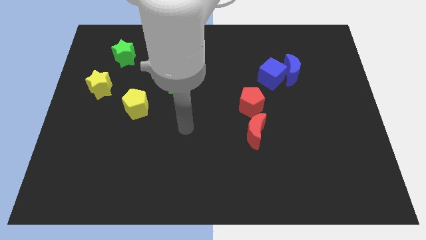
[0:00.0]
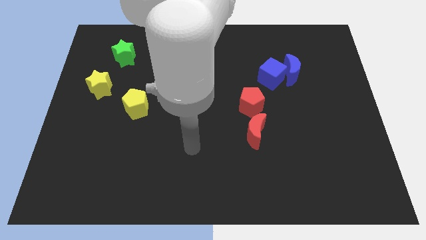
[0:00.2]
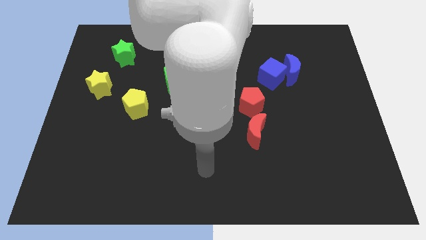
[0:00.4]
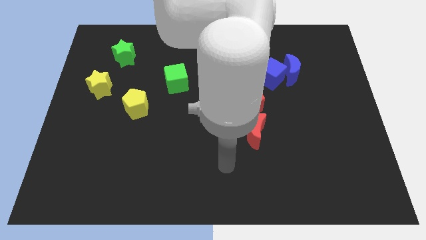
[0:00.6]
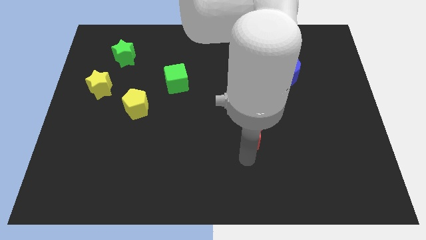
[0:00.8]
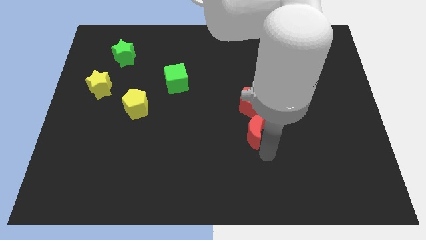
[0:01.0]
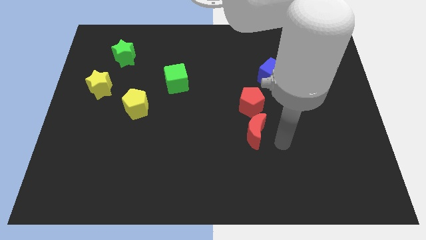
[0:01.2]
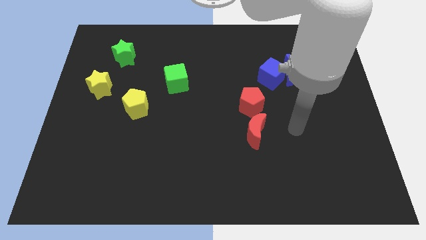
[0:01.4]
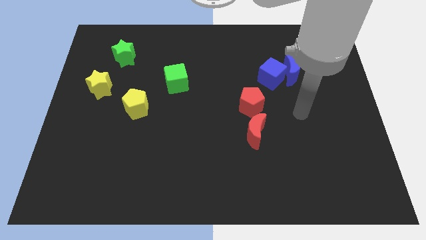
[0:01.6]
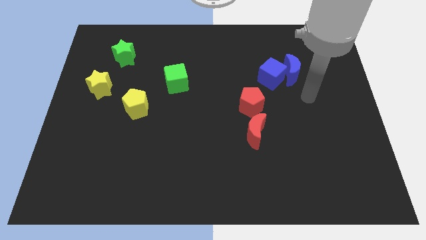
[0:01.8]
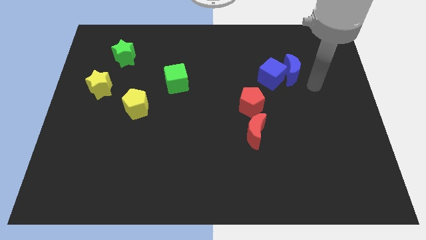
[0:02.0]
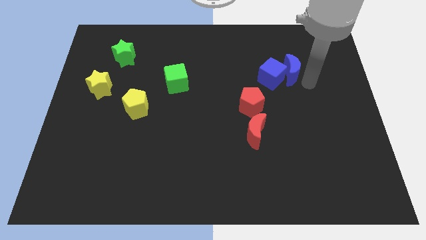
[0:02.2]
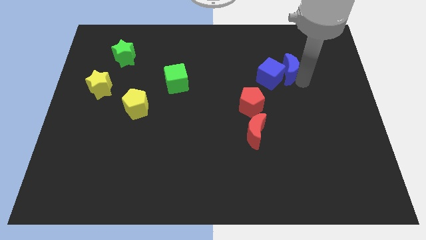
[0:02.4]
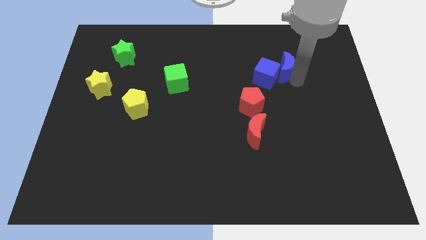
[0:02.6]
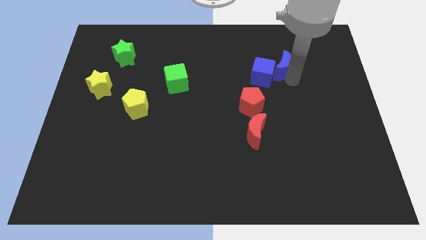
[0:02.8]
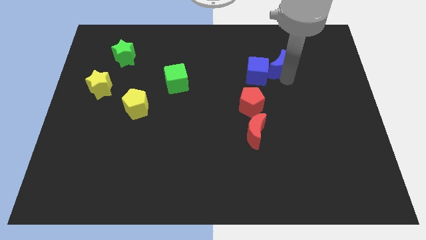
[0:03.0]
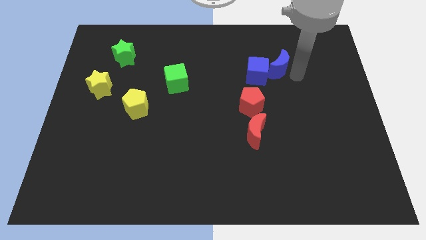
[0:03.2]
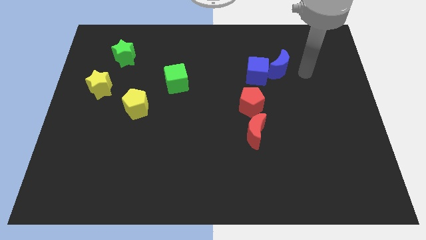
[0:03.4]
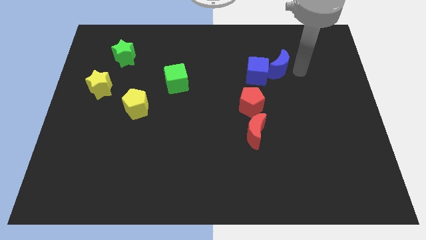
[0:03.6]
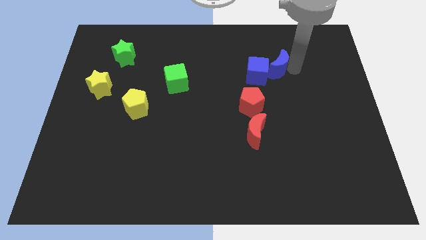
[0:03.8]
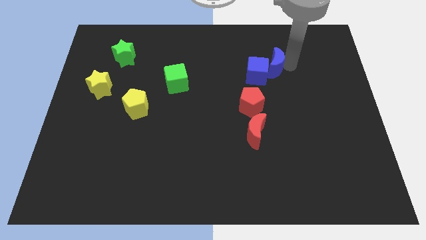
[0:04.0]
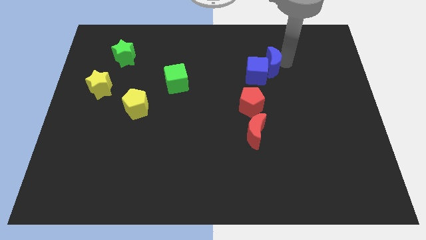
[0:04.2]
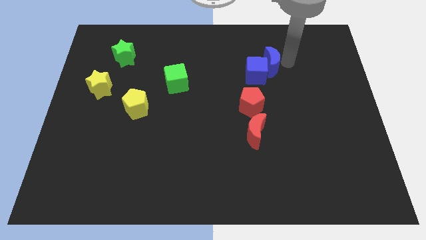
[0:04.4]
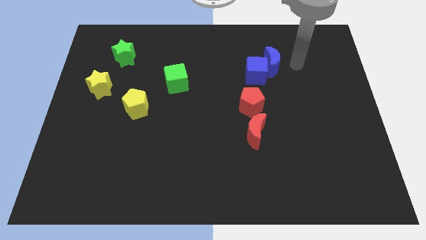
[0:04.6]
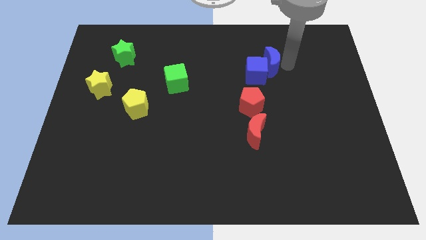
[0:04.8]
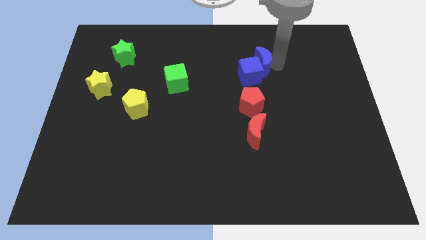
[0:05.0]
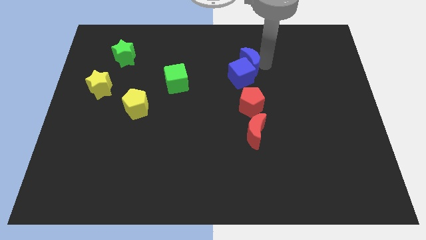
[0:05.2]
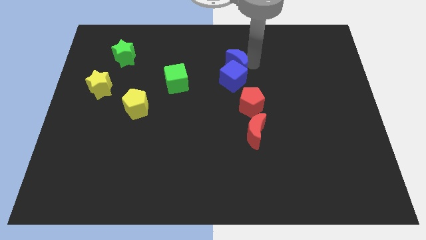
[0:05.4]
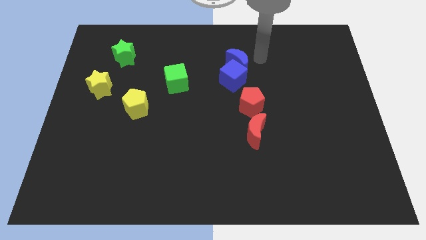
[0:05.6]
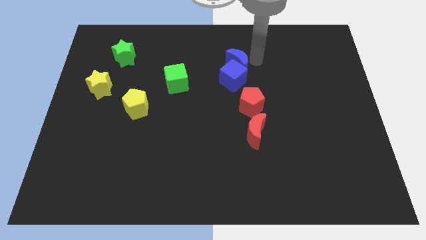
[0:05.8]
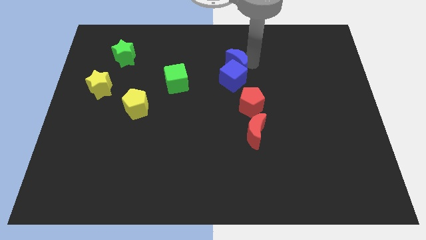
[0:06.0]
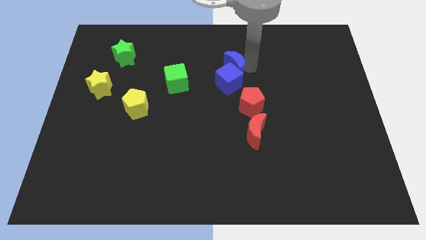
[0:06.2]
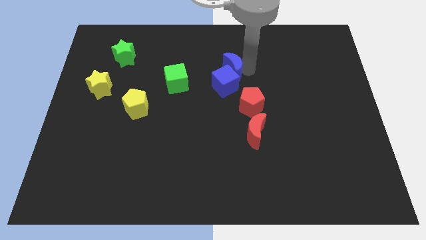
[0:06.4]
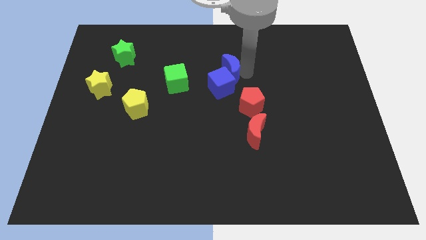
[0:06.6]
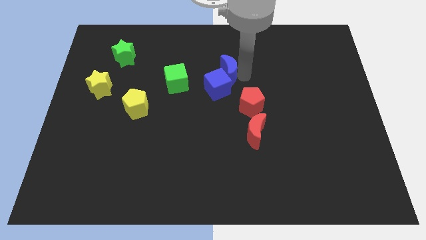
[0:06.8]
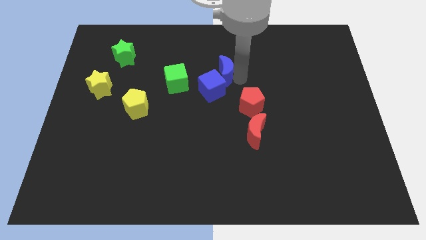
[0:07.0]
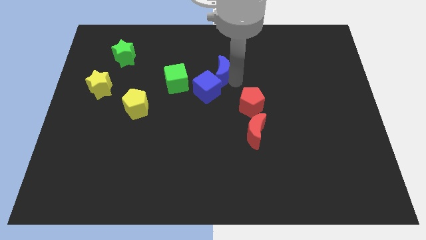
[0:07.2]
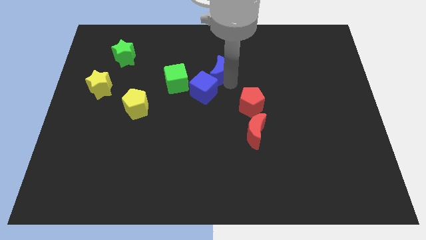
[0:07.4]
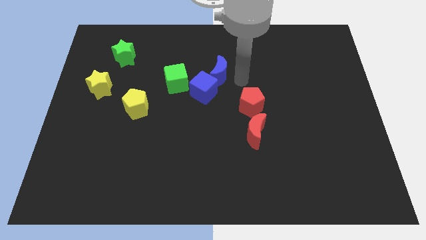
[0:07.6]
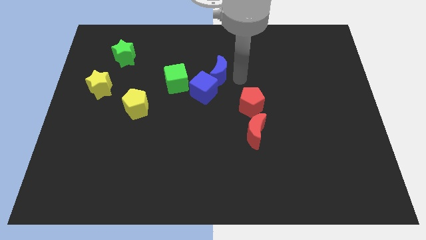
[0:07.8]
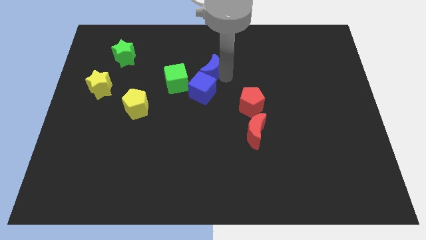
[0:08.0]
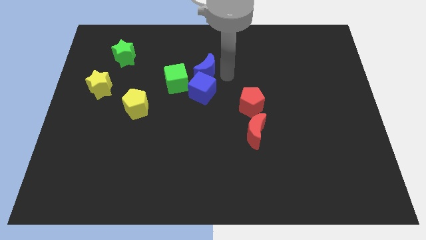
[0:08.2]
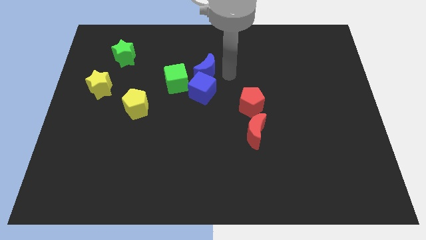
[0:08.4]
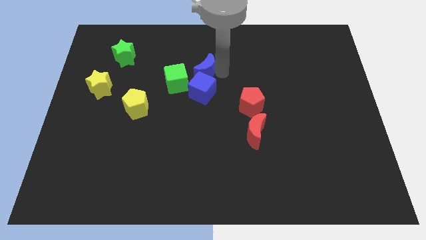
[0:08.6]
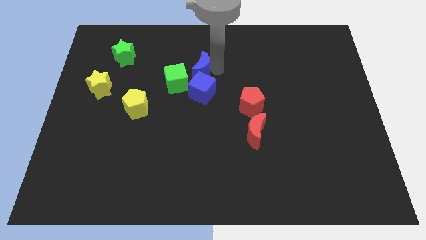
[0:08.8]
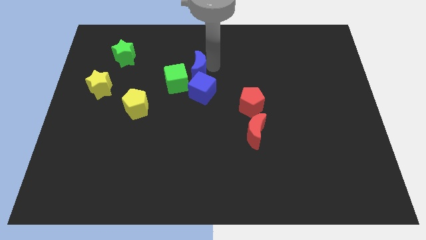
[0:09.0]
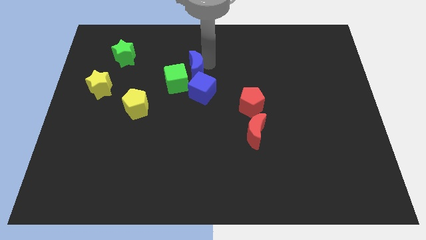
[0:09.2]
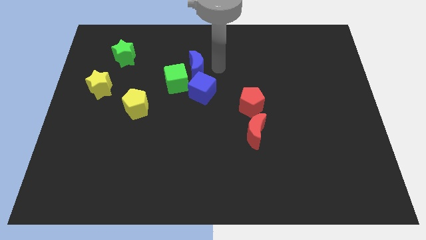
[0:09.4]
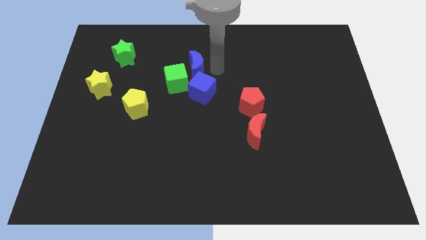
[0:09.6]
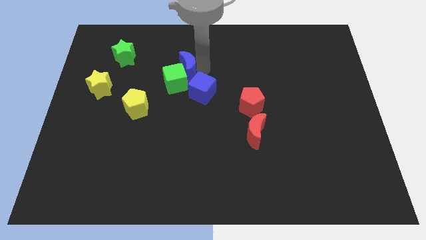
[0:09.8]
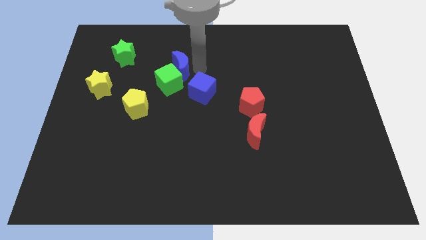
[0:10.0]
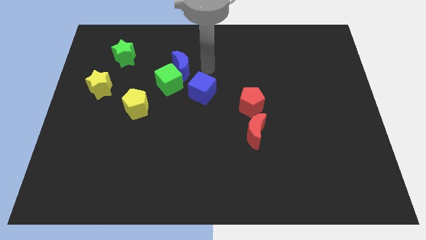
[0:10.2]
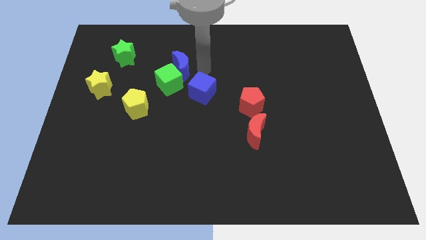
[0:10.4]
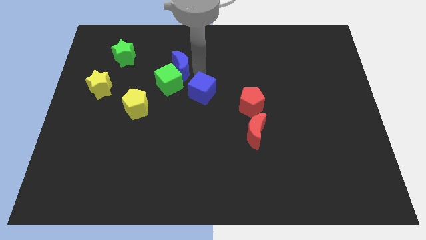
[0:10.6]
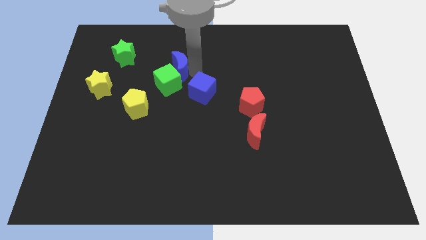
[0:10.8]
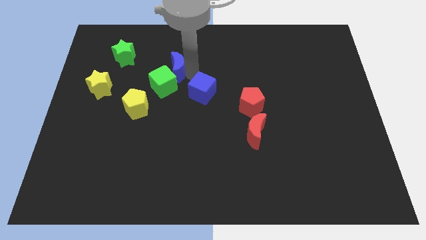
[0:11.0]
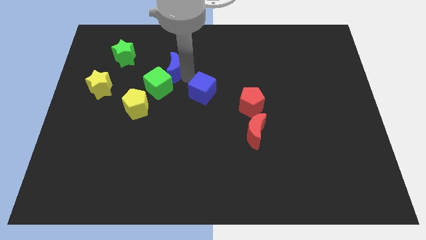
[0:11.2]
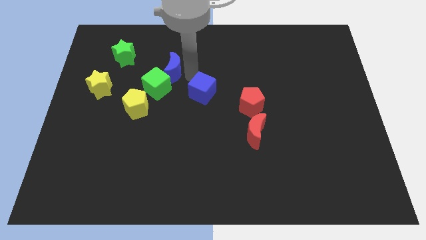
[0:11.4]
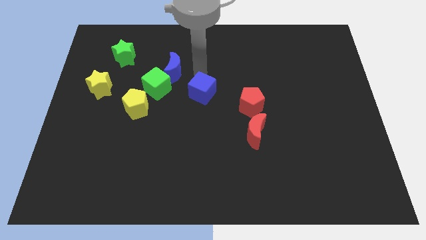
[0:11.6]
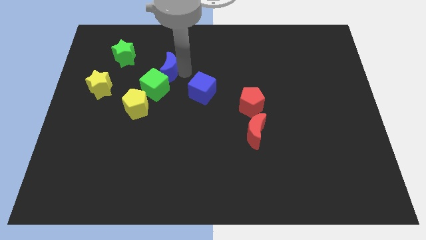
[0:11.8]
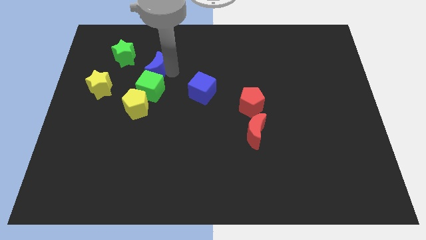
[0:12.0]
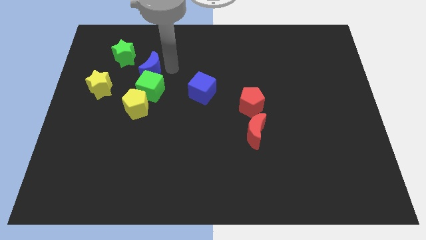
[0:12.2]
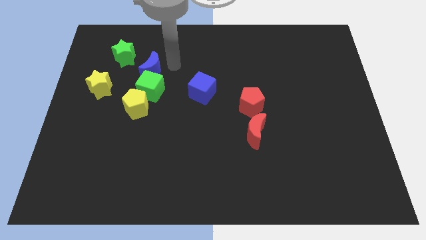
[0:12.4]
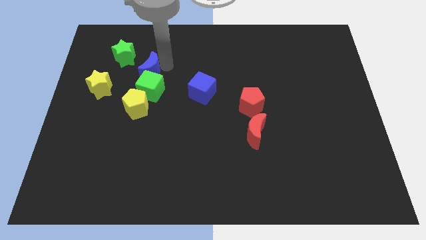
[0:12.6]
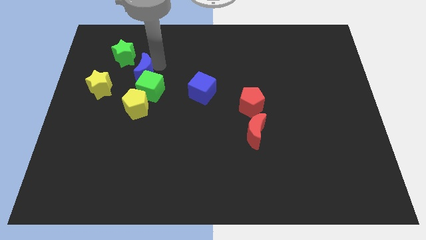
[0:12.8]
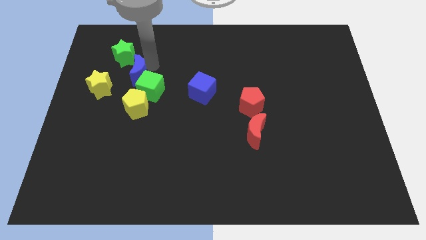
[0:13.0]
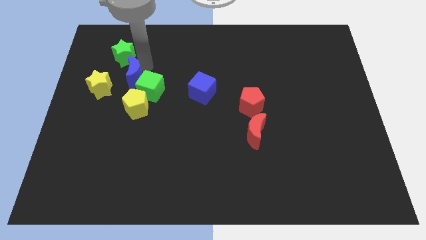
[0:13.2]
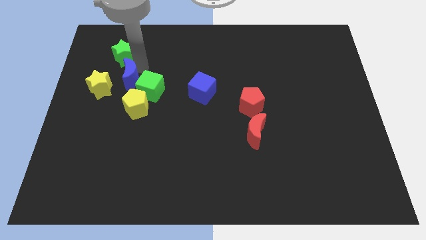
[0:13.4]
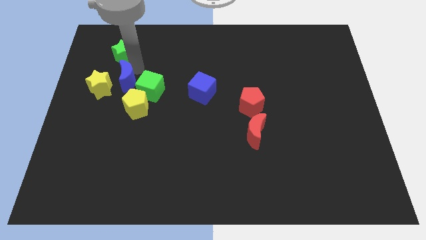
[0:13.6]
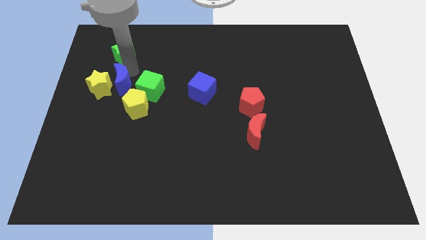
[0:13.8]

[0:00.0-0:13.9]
put the blue moon towards the yellow star
